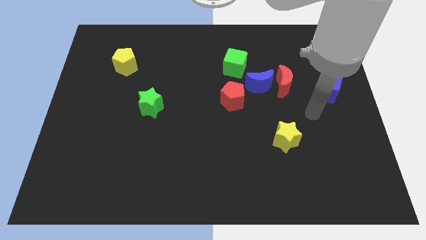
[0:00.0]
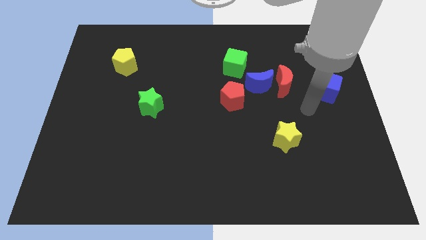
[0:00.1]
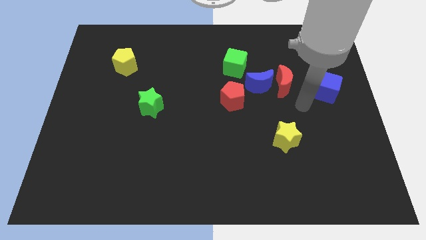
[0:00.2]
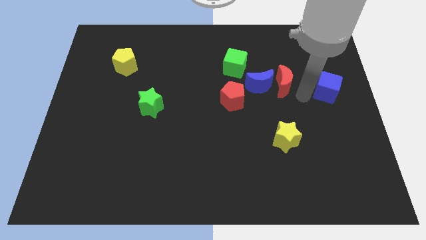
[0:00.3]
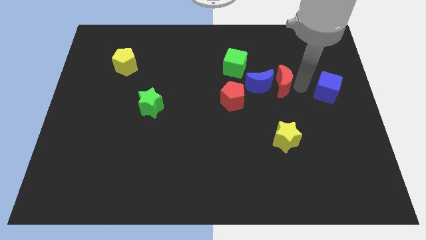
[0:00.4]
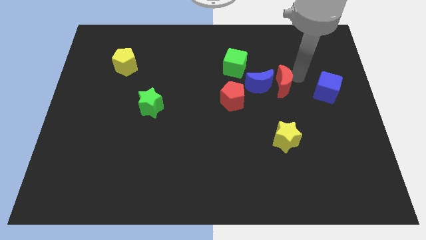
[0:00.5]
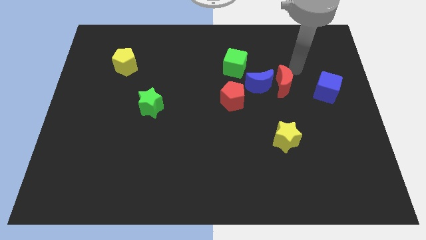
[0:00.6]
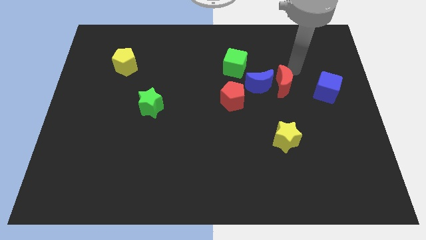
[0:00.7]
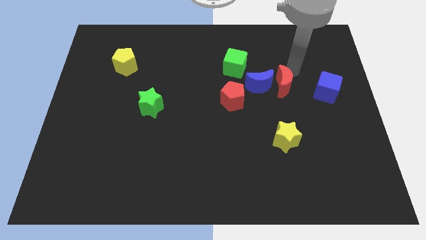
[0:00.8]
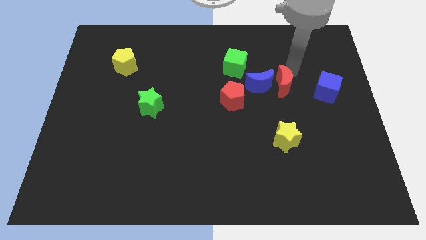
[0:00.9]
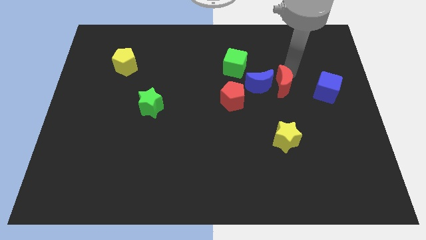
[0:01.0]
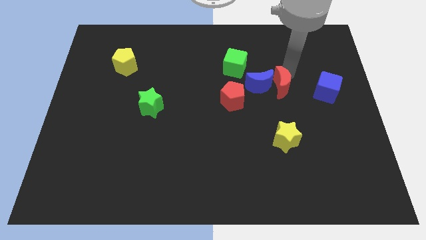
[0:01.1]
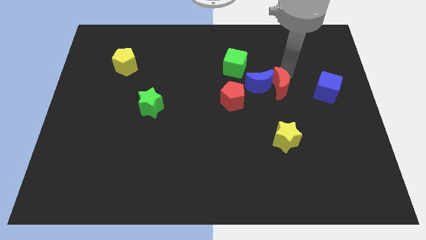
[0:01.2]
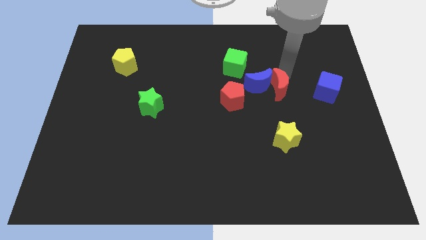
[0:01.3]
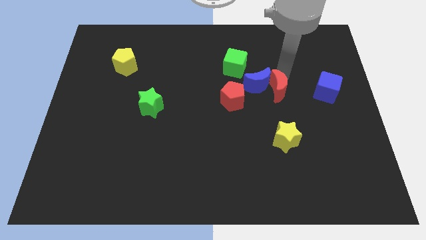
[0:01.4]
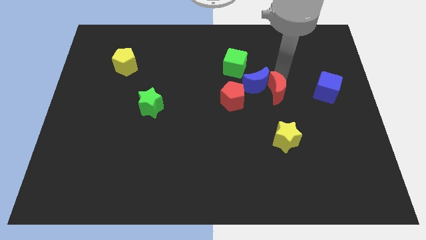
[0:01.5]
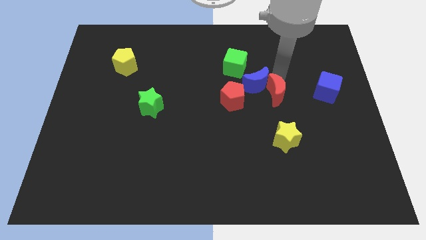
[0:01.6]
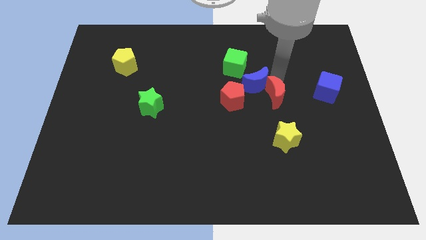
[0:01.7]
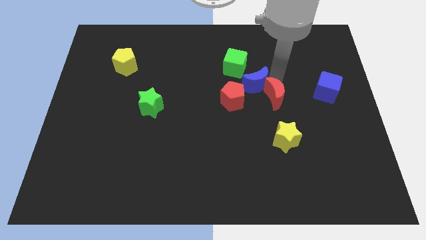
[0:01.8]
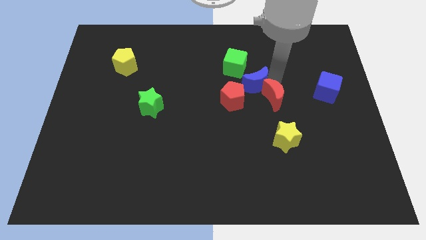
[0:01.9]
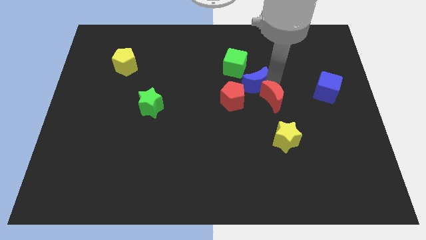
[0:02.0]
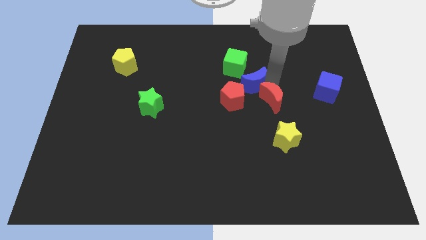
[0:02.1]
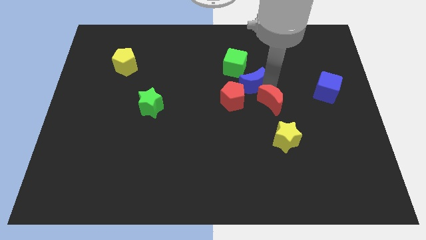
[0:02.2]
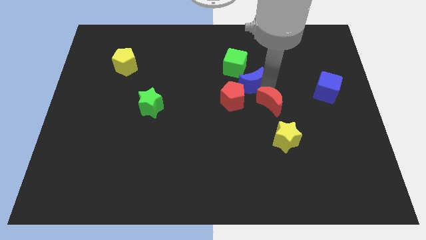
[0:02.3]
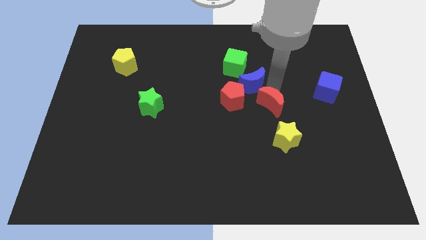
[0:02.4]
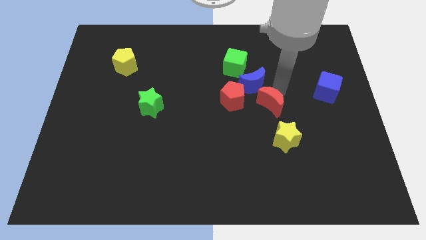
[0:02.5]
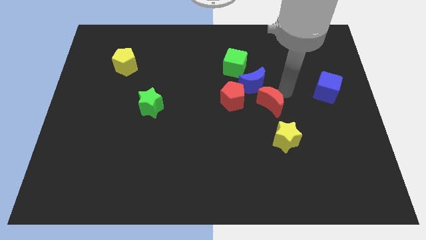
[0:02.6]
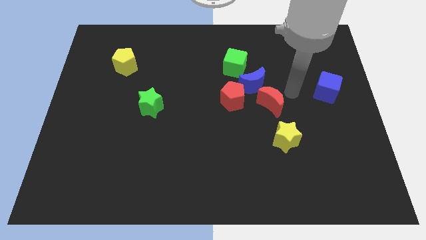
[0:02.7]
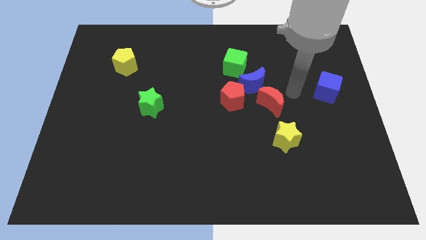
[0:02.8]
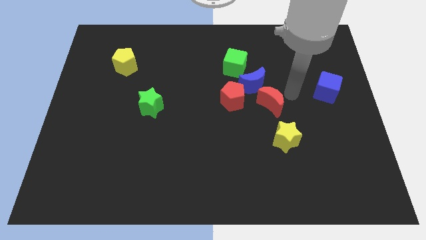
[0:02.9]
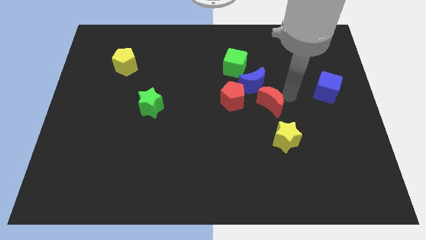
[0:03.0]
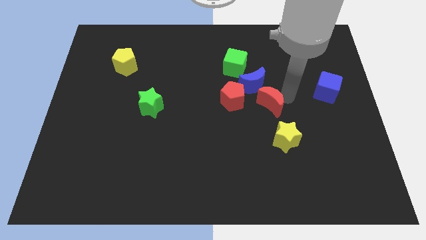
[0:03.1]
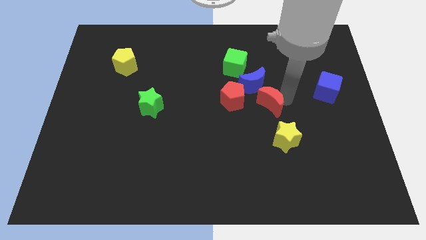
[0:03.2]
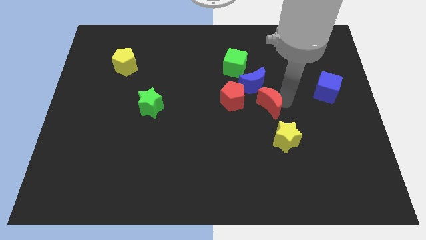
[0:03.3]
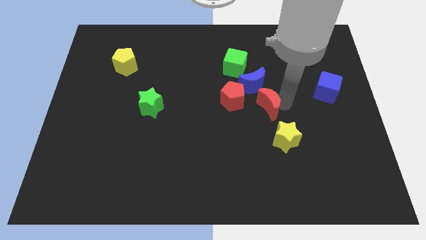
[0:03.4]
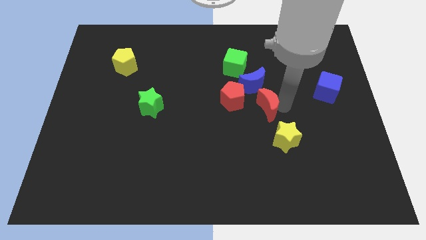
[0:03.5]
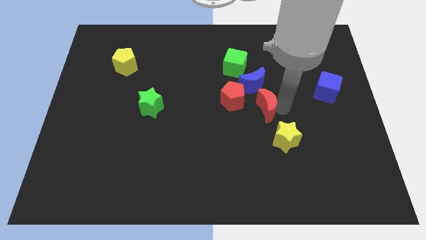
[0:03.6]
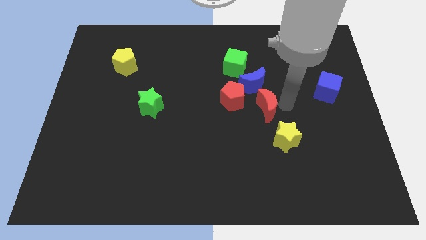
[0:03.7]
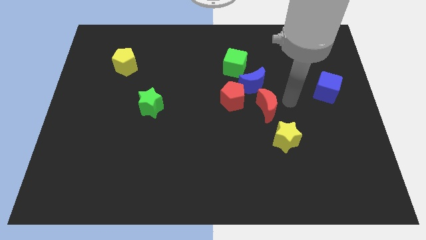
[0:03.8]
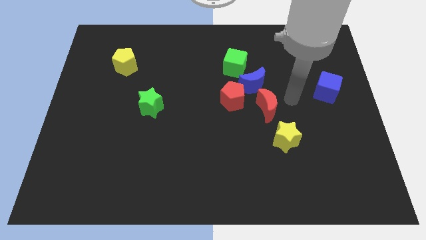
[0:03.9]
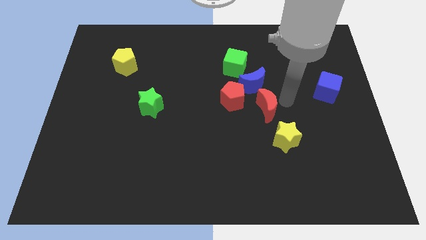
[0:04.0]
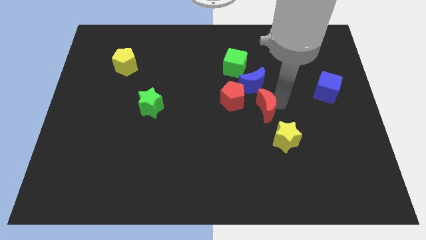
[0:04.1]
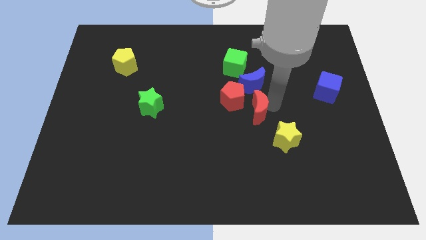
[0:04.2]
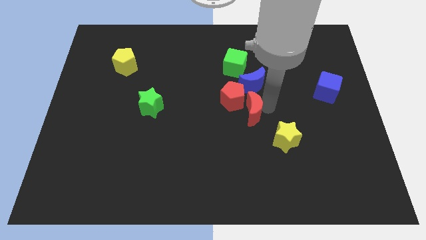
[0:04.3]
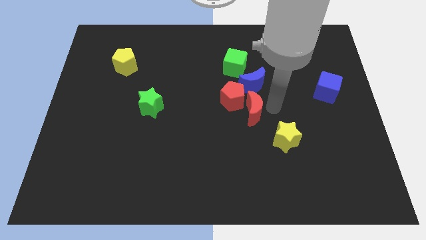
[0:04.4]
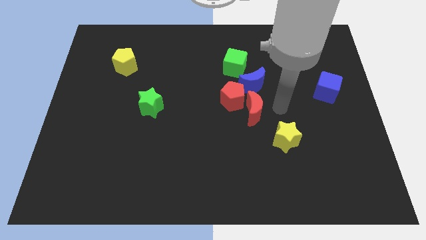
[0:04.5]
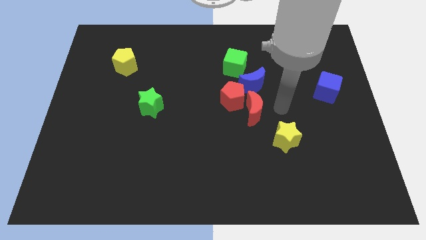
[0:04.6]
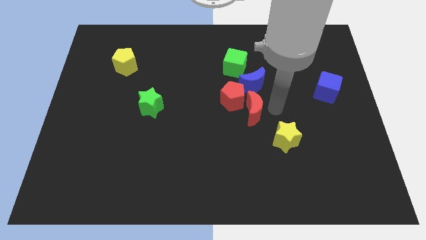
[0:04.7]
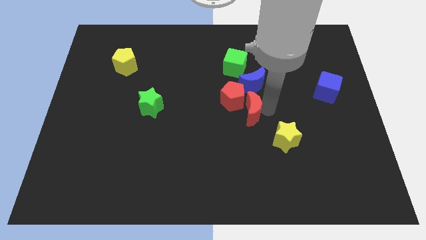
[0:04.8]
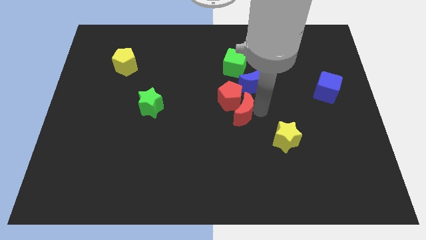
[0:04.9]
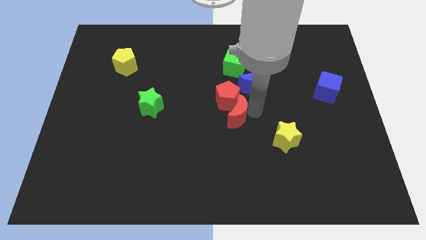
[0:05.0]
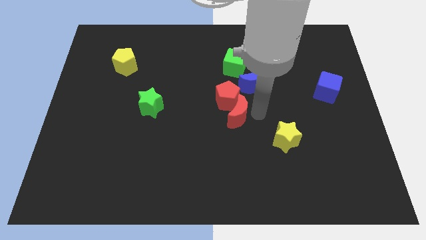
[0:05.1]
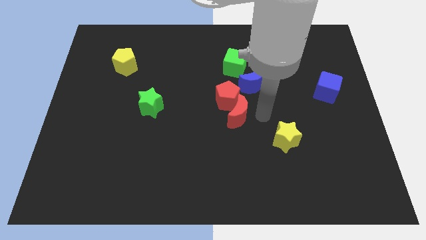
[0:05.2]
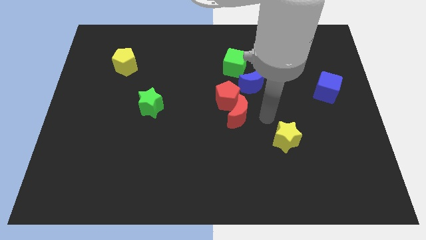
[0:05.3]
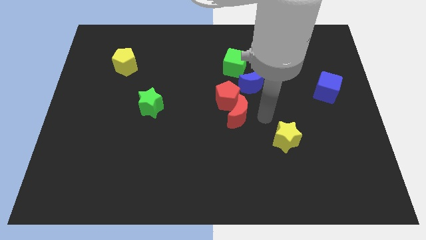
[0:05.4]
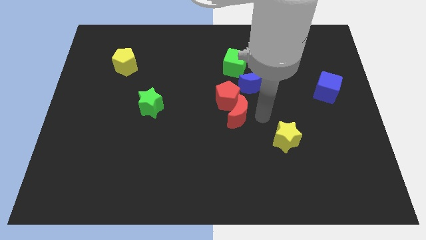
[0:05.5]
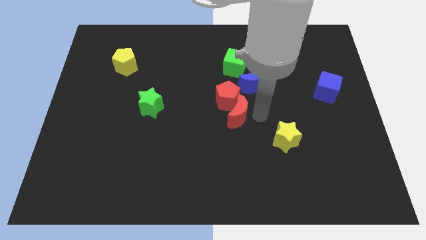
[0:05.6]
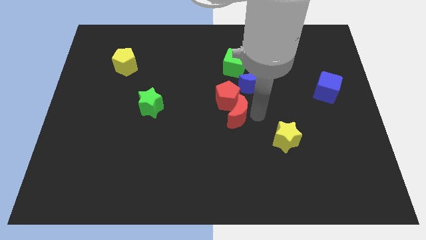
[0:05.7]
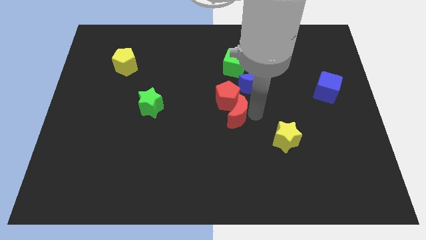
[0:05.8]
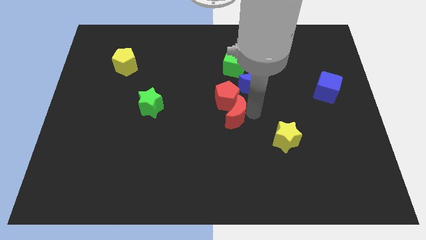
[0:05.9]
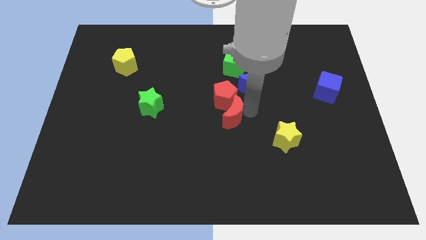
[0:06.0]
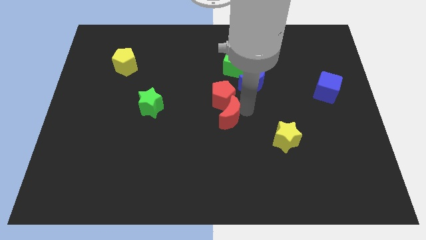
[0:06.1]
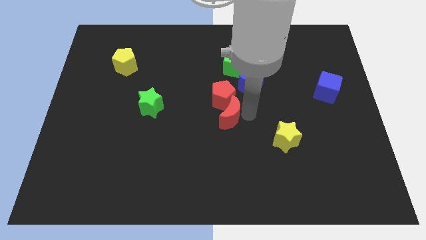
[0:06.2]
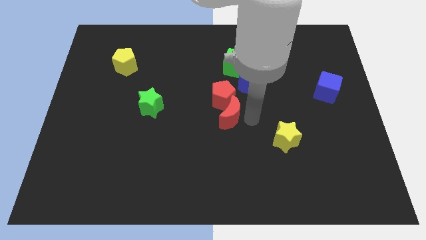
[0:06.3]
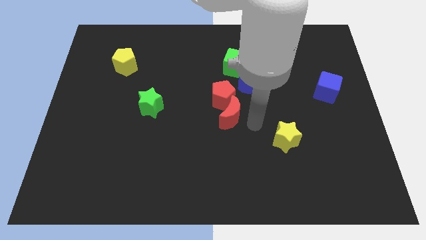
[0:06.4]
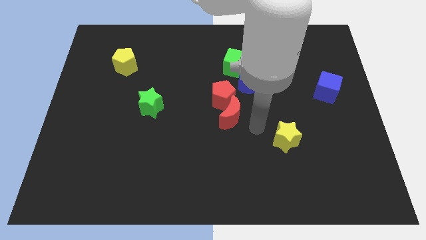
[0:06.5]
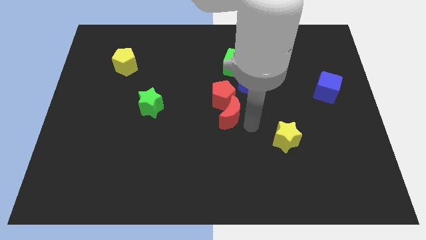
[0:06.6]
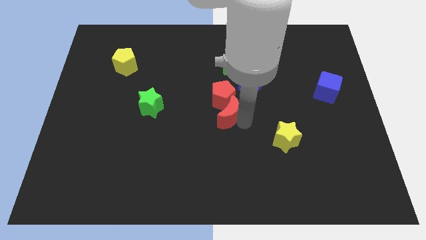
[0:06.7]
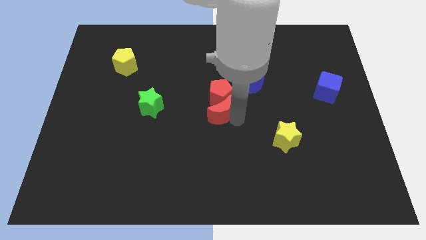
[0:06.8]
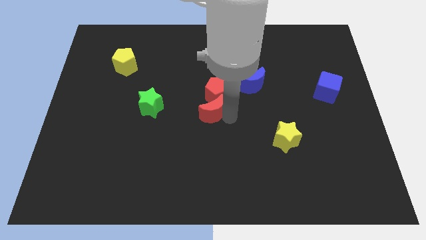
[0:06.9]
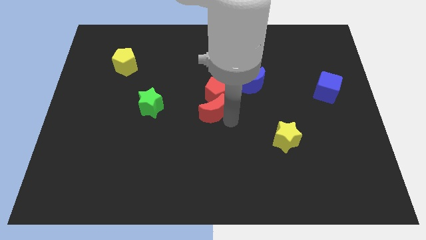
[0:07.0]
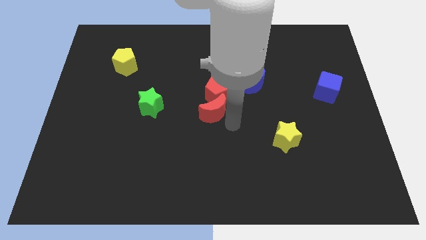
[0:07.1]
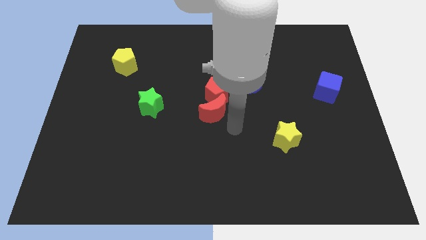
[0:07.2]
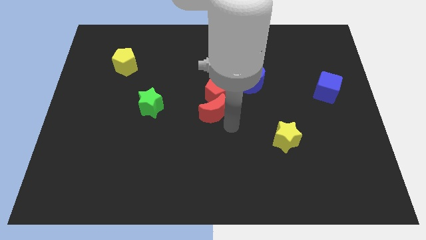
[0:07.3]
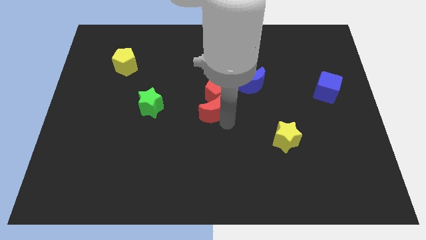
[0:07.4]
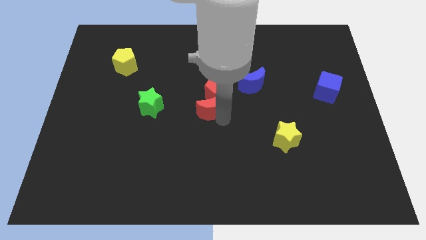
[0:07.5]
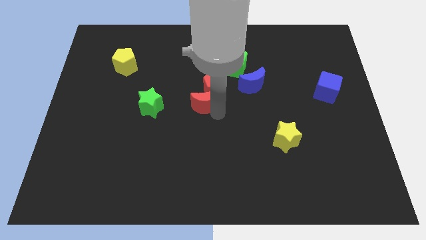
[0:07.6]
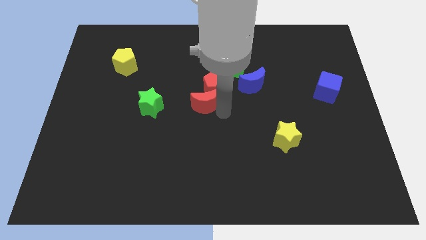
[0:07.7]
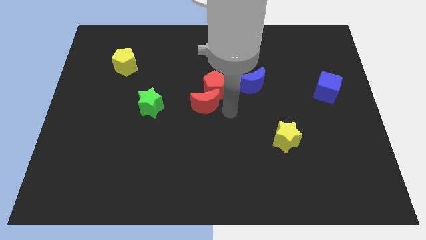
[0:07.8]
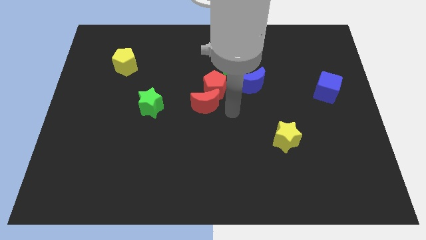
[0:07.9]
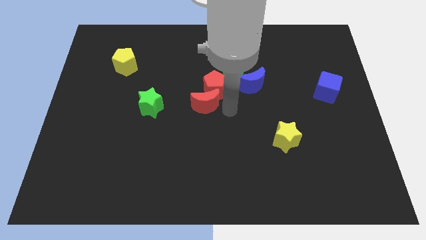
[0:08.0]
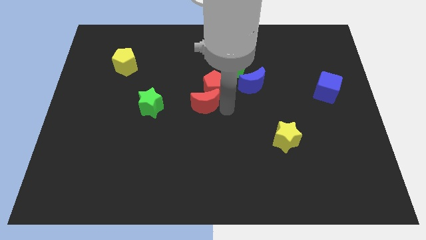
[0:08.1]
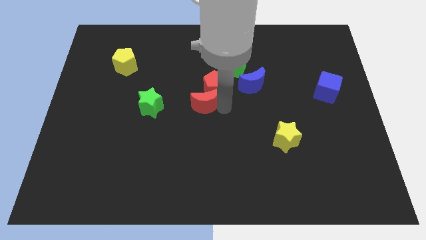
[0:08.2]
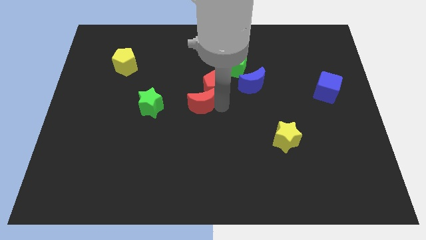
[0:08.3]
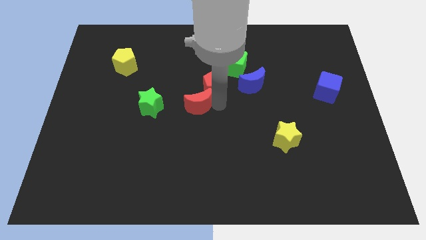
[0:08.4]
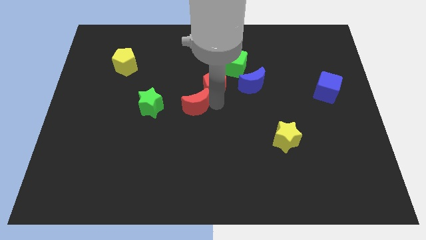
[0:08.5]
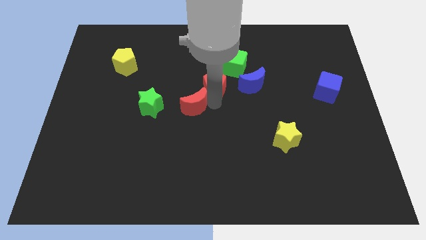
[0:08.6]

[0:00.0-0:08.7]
move the red moon left
